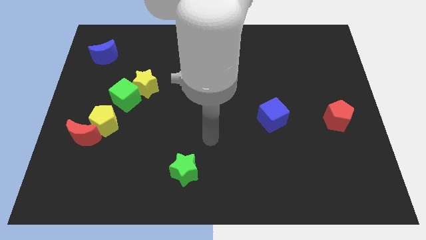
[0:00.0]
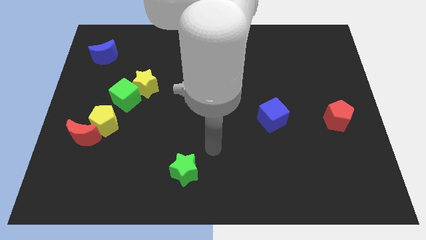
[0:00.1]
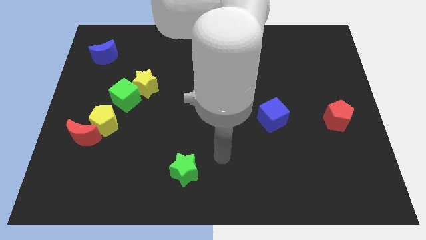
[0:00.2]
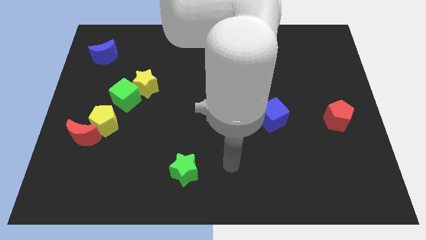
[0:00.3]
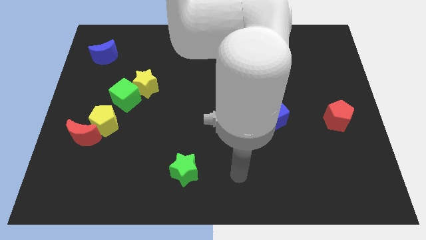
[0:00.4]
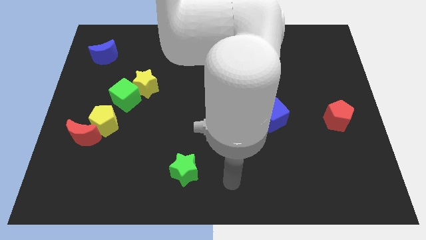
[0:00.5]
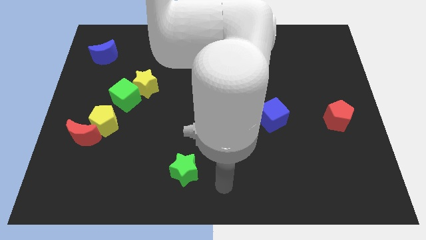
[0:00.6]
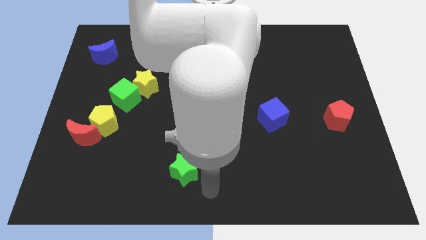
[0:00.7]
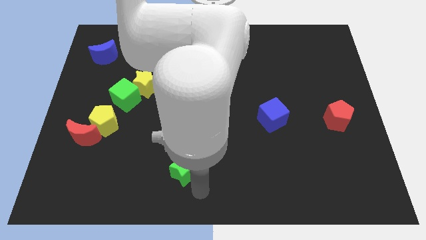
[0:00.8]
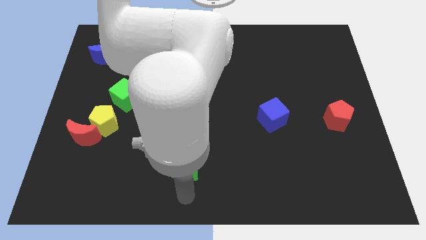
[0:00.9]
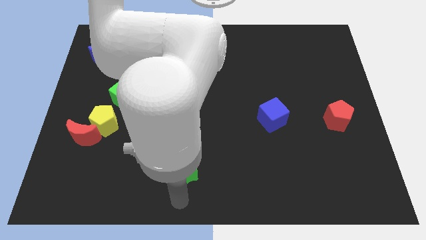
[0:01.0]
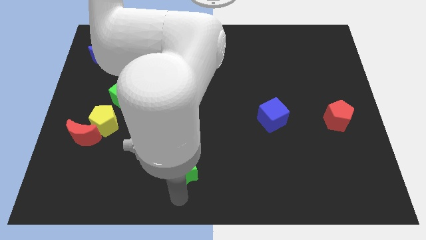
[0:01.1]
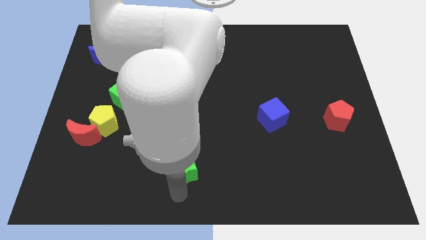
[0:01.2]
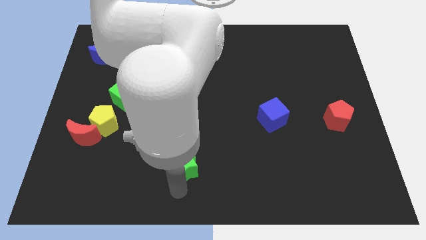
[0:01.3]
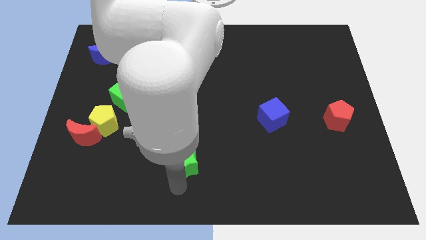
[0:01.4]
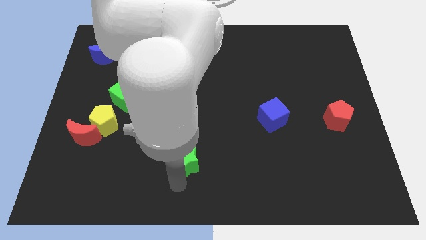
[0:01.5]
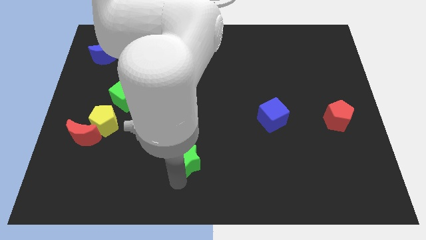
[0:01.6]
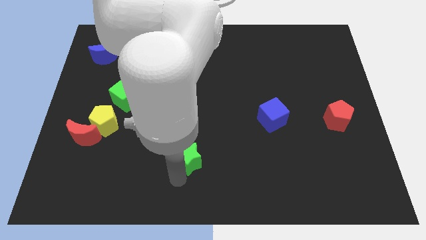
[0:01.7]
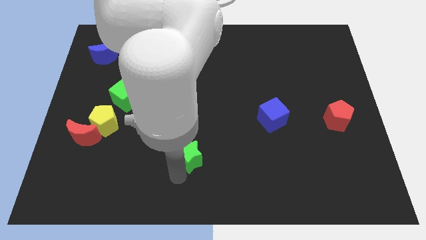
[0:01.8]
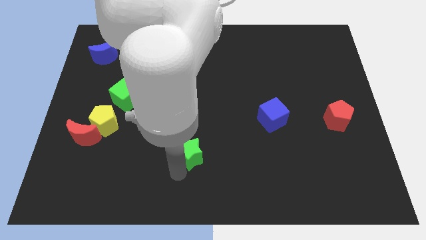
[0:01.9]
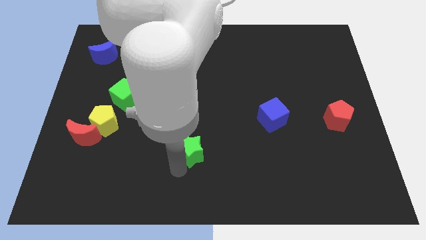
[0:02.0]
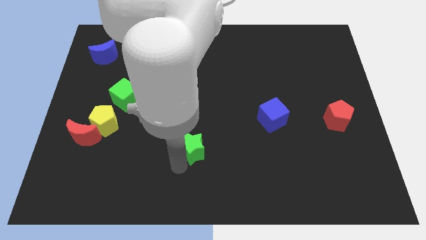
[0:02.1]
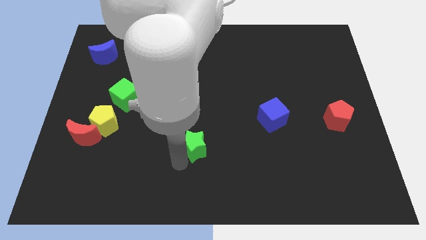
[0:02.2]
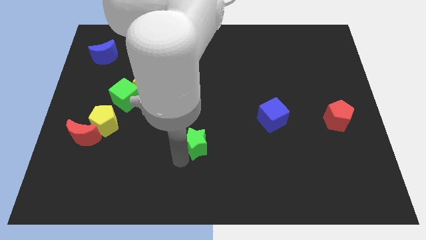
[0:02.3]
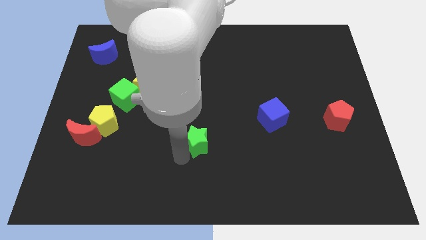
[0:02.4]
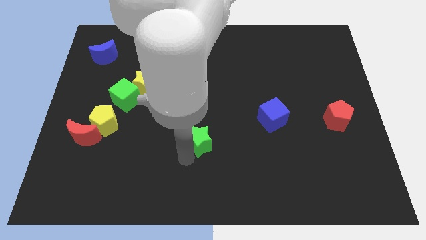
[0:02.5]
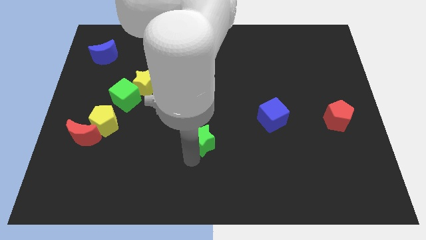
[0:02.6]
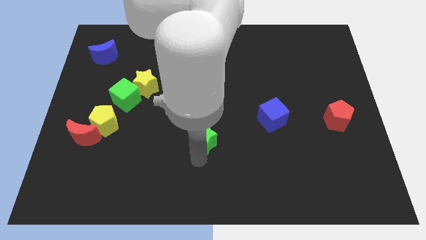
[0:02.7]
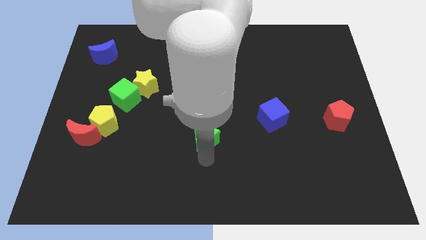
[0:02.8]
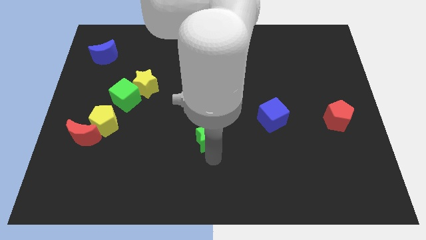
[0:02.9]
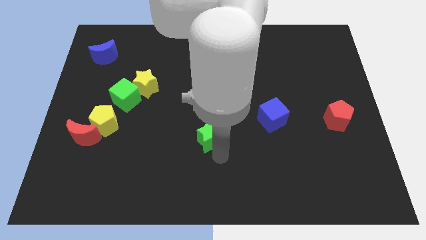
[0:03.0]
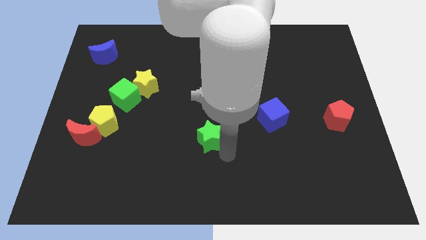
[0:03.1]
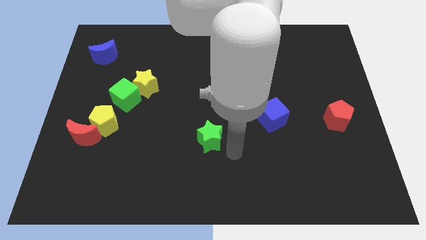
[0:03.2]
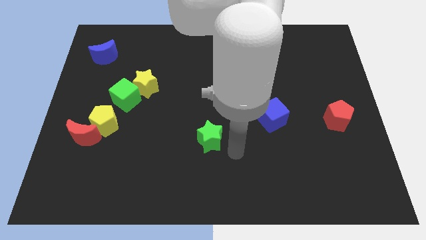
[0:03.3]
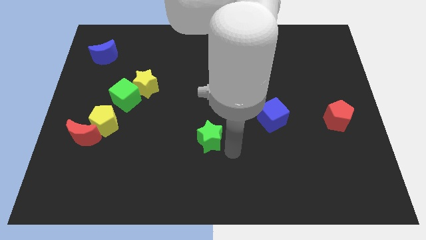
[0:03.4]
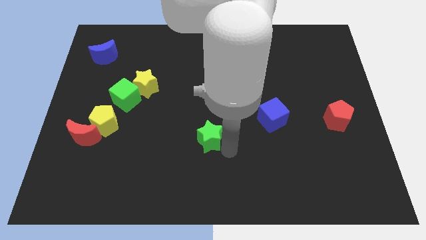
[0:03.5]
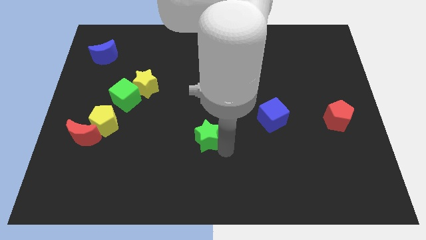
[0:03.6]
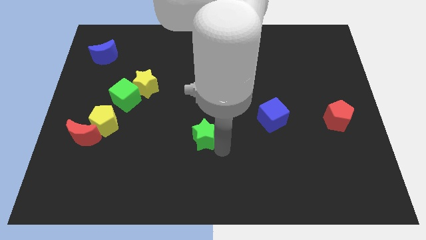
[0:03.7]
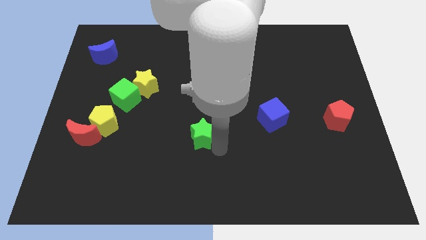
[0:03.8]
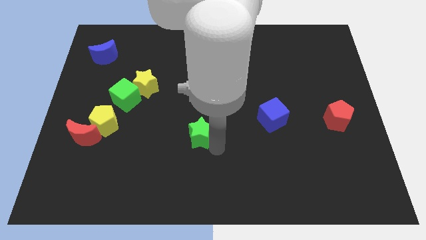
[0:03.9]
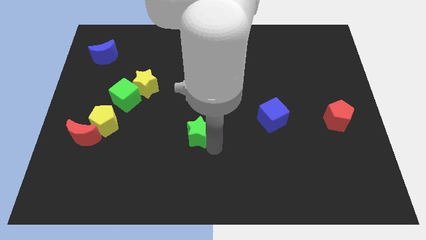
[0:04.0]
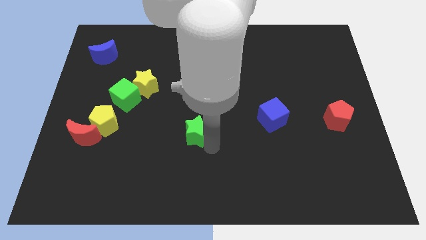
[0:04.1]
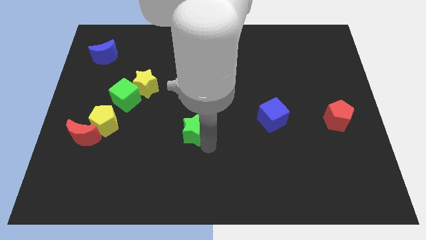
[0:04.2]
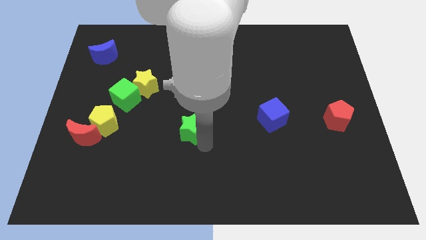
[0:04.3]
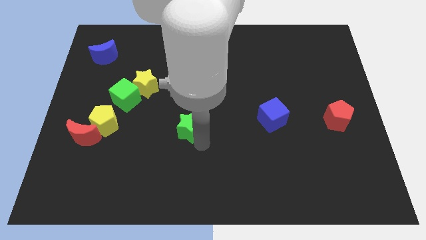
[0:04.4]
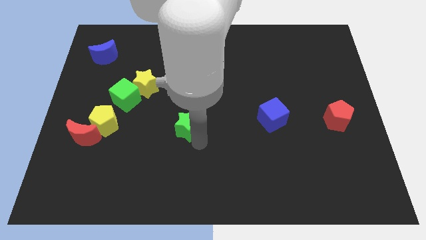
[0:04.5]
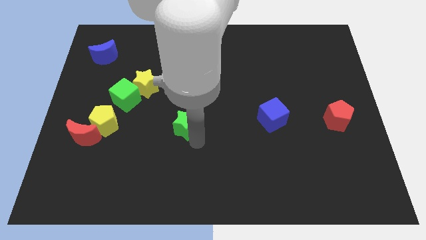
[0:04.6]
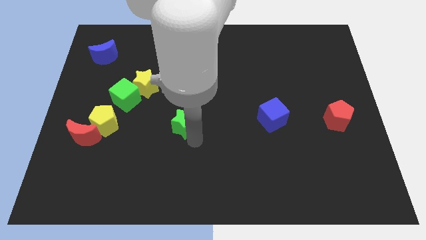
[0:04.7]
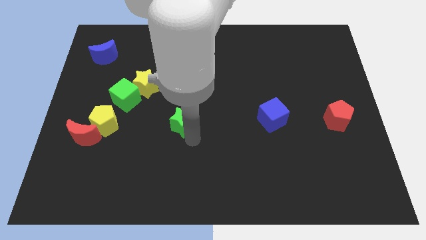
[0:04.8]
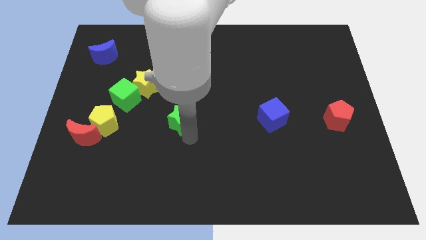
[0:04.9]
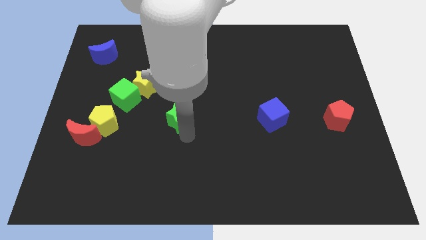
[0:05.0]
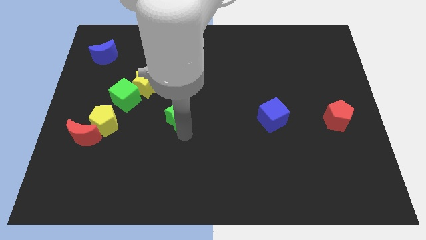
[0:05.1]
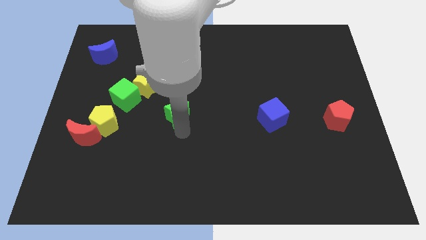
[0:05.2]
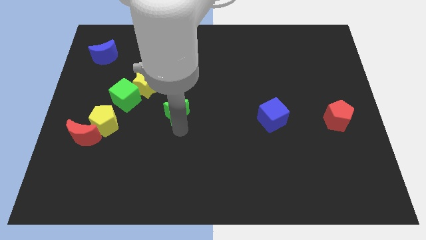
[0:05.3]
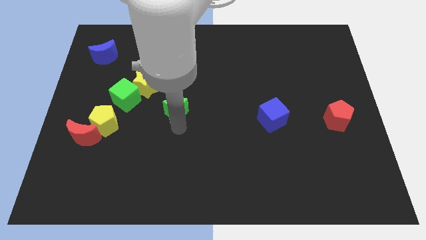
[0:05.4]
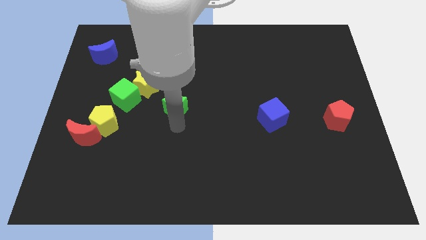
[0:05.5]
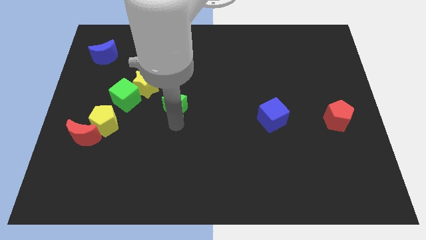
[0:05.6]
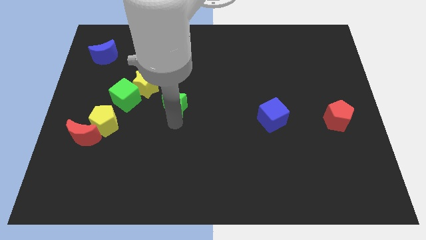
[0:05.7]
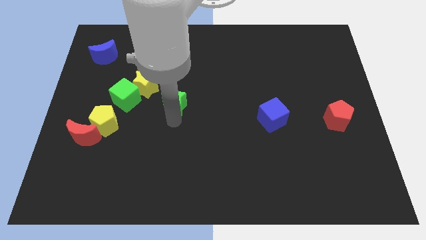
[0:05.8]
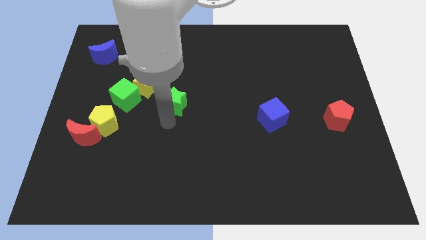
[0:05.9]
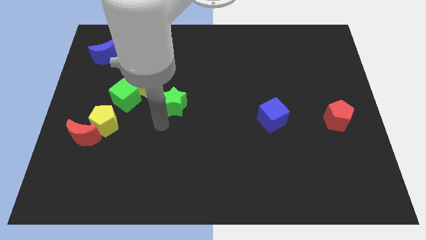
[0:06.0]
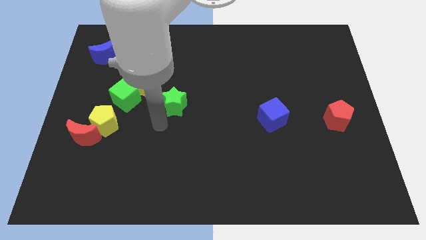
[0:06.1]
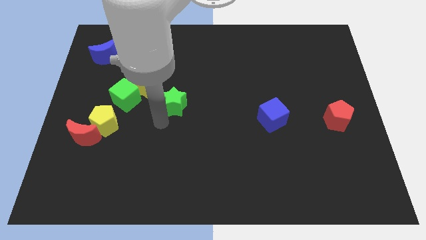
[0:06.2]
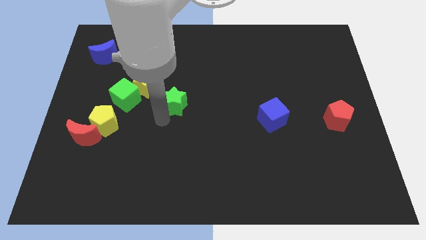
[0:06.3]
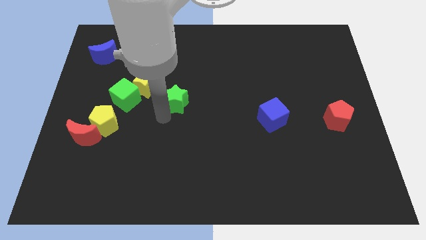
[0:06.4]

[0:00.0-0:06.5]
push the green star right of the yellow star

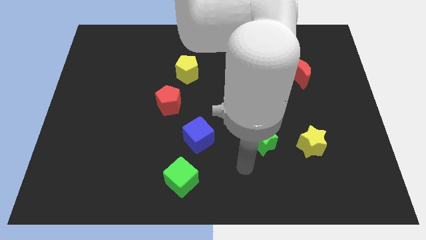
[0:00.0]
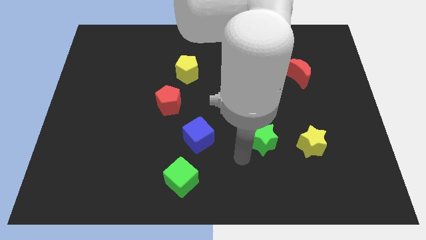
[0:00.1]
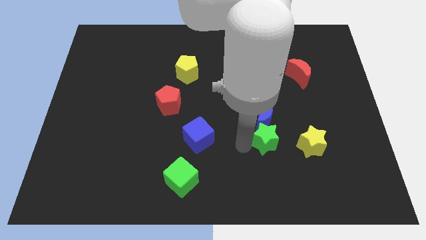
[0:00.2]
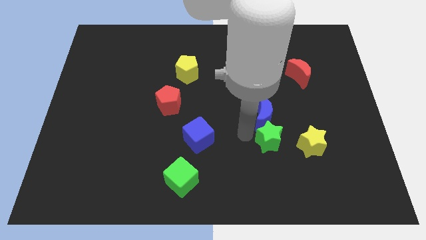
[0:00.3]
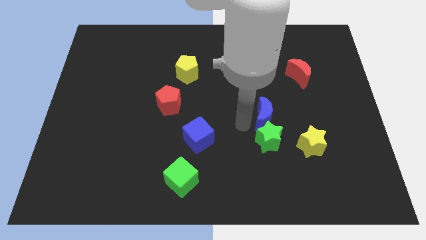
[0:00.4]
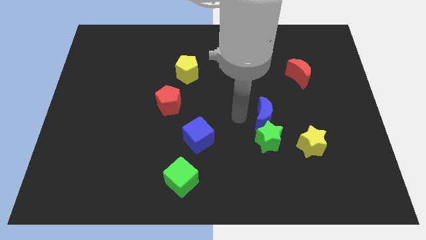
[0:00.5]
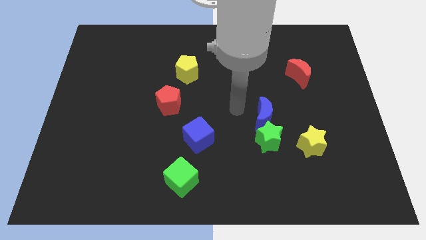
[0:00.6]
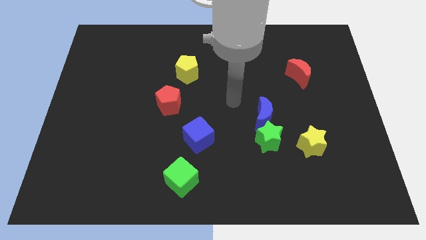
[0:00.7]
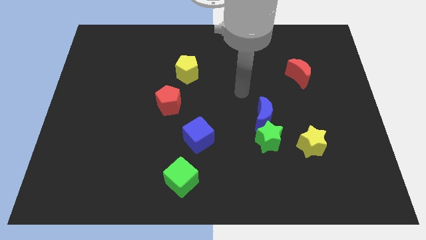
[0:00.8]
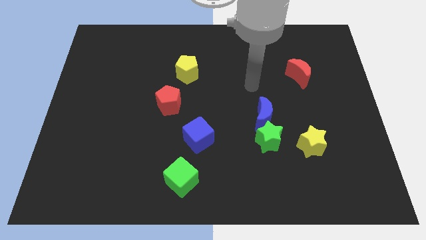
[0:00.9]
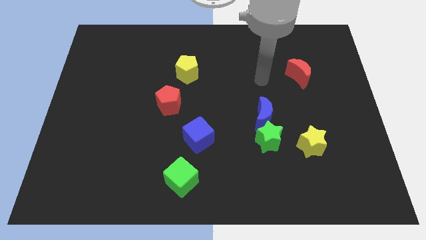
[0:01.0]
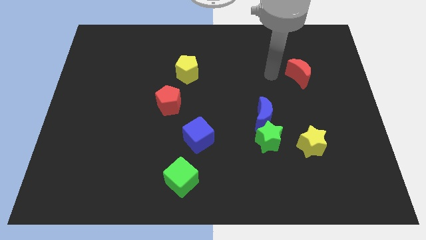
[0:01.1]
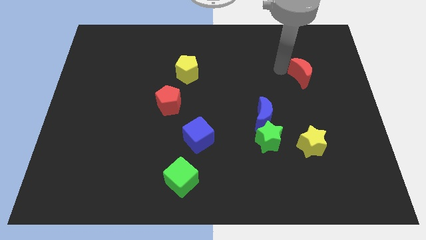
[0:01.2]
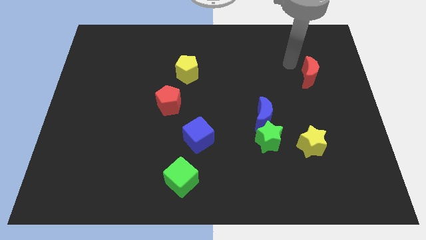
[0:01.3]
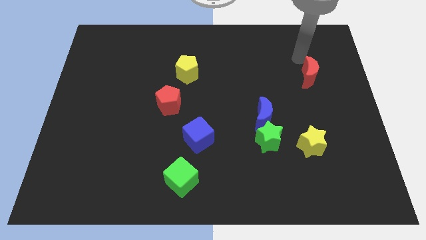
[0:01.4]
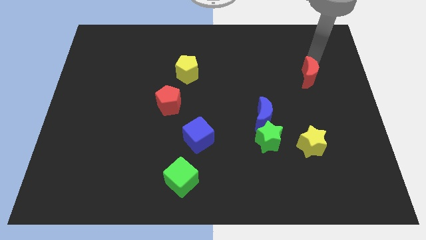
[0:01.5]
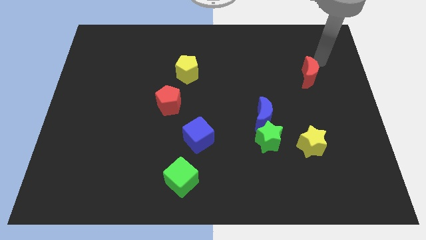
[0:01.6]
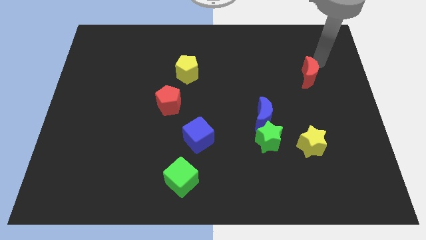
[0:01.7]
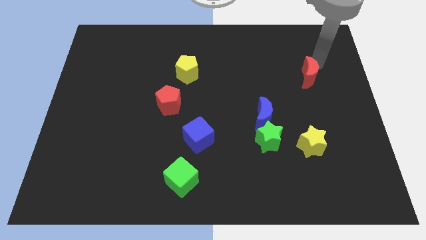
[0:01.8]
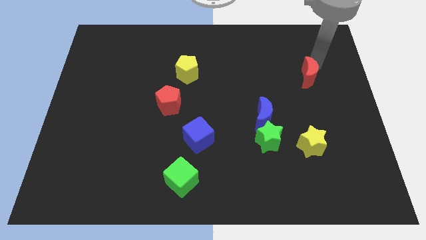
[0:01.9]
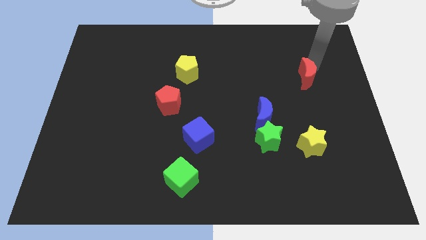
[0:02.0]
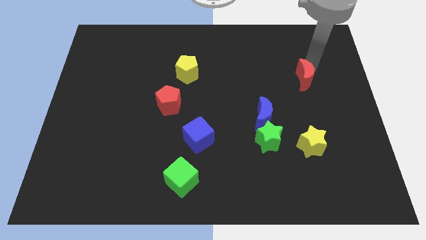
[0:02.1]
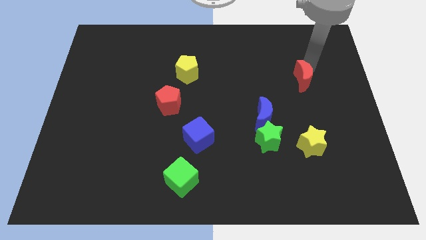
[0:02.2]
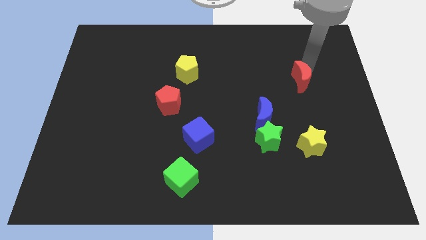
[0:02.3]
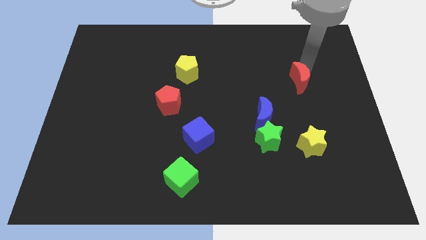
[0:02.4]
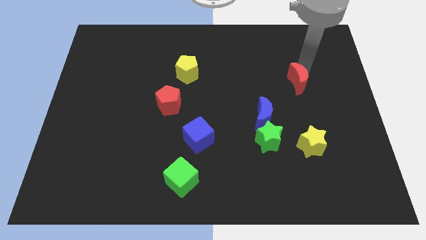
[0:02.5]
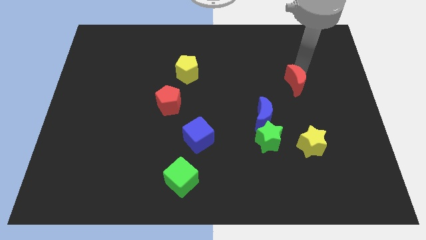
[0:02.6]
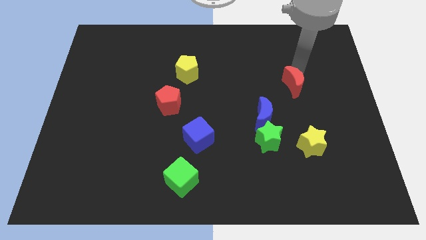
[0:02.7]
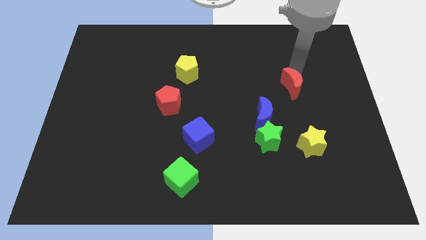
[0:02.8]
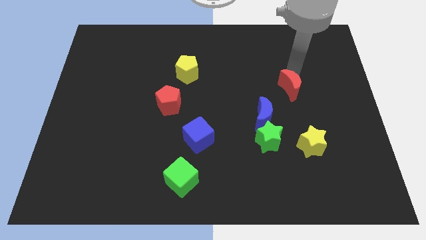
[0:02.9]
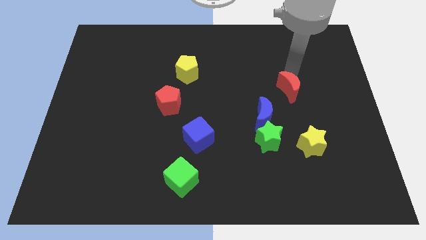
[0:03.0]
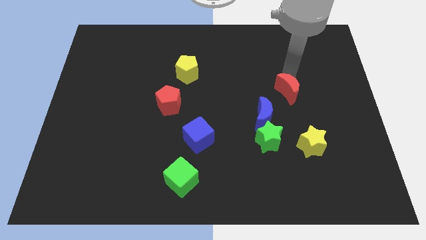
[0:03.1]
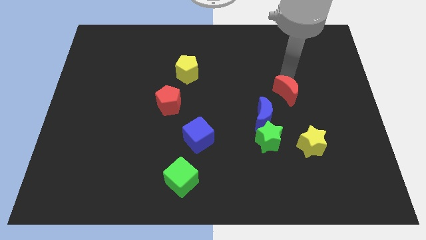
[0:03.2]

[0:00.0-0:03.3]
push the red moon to the top of the yellow star
